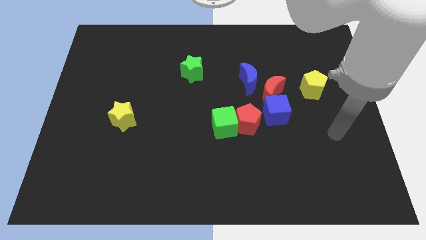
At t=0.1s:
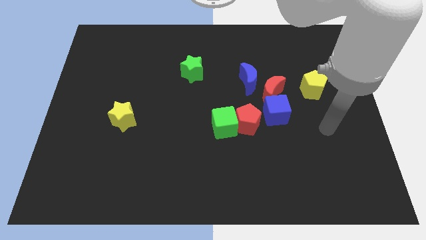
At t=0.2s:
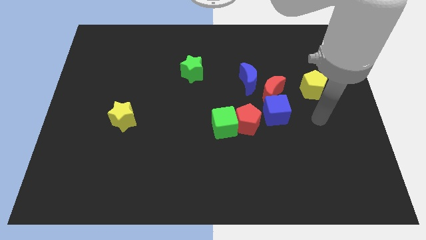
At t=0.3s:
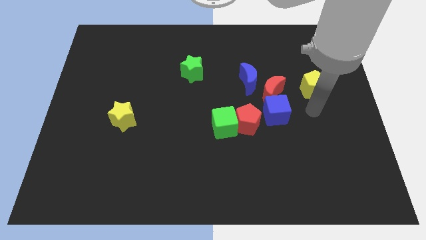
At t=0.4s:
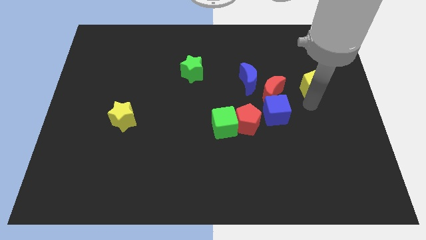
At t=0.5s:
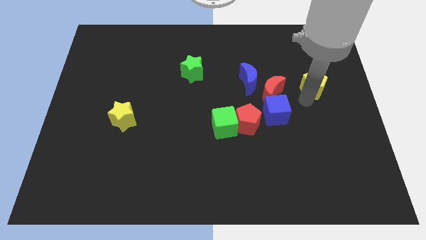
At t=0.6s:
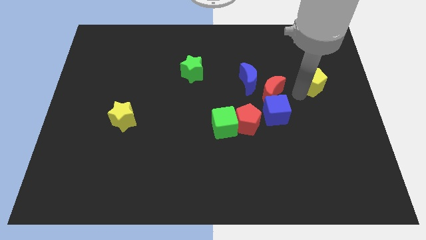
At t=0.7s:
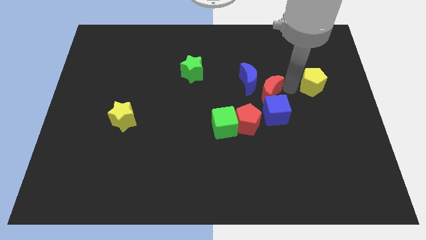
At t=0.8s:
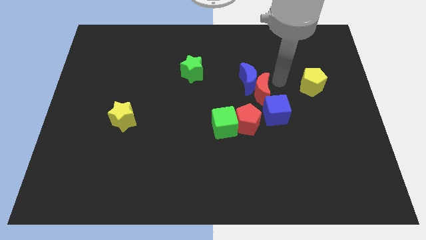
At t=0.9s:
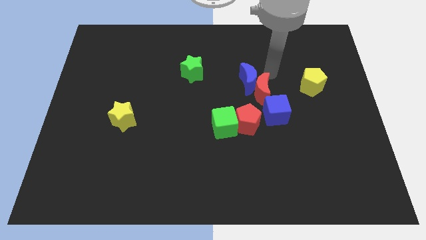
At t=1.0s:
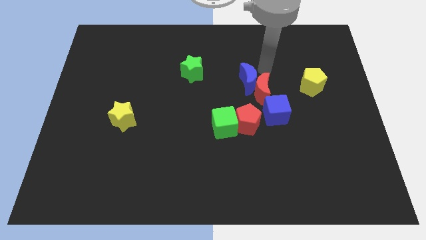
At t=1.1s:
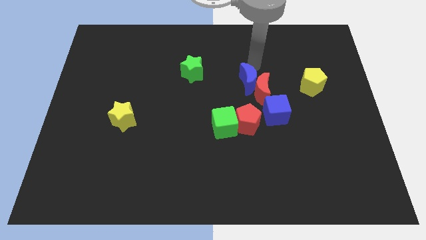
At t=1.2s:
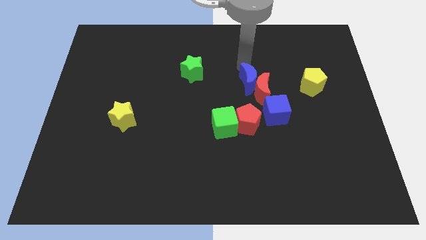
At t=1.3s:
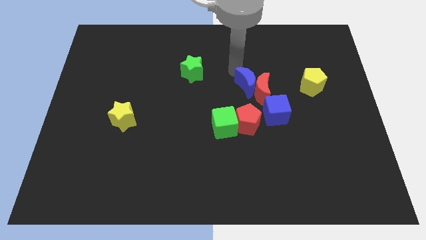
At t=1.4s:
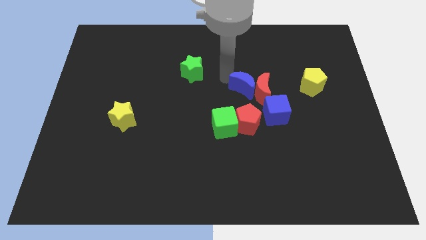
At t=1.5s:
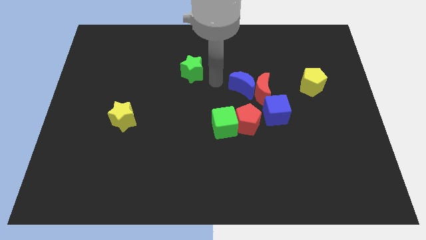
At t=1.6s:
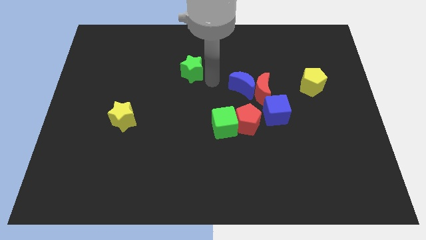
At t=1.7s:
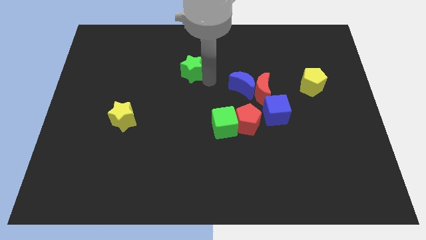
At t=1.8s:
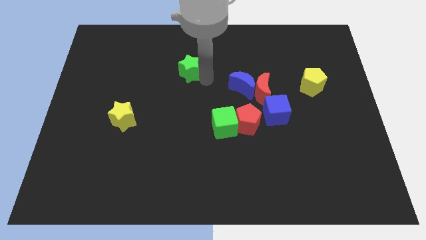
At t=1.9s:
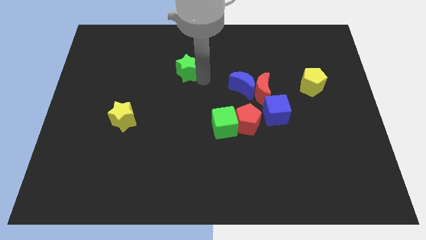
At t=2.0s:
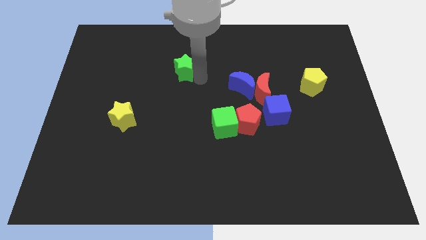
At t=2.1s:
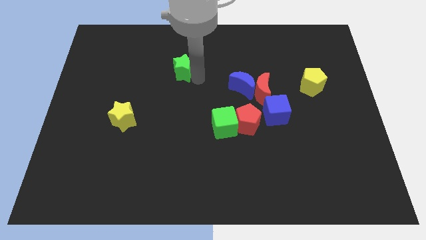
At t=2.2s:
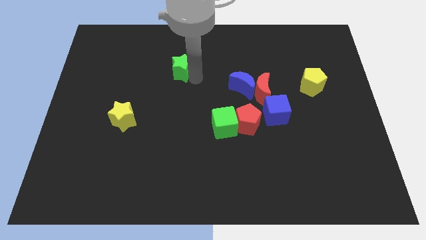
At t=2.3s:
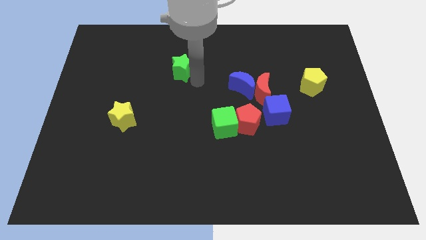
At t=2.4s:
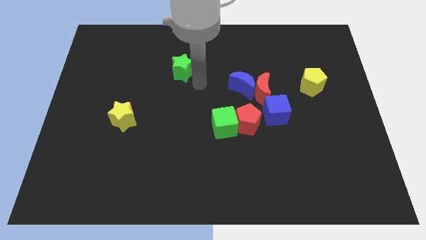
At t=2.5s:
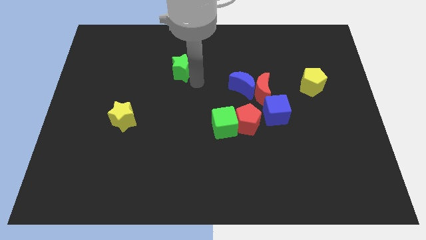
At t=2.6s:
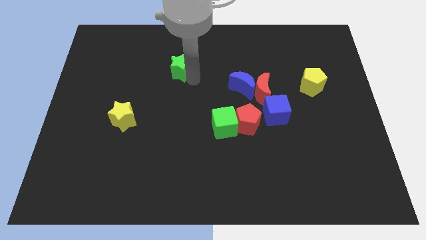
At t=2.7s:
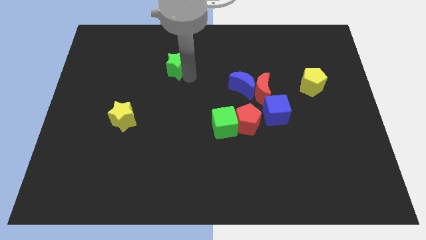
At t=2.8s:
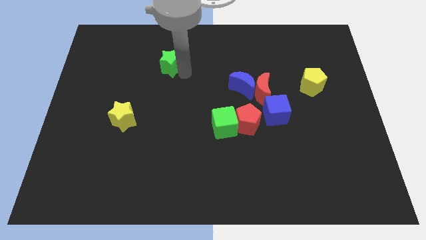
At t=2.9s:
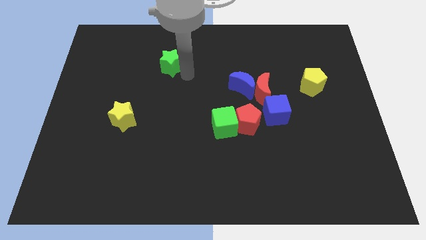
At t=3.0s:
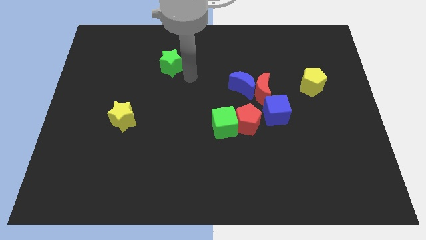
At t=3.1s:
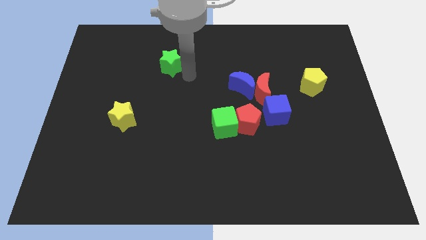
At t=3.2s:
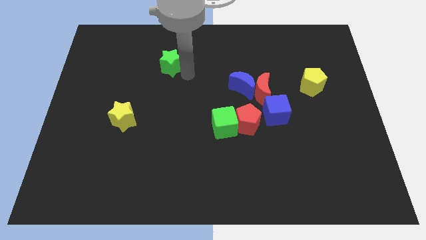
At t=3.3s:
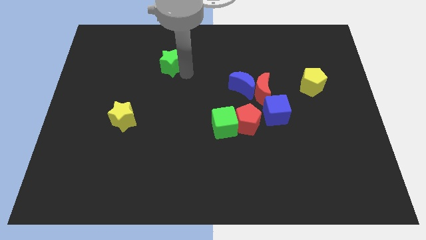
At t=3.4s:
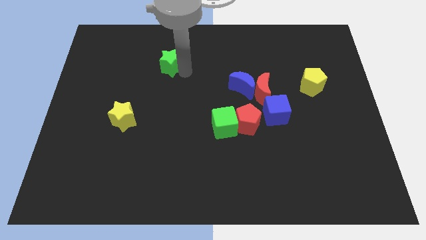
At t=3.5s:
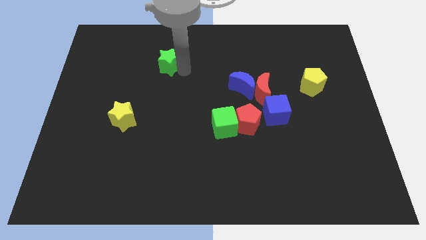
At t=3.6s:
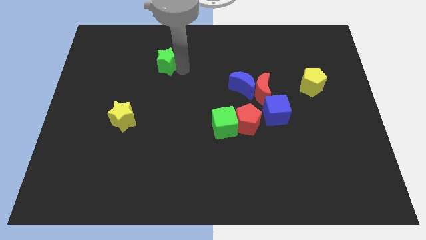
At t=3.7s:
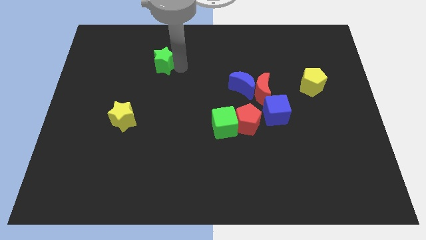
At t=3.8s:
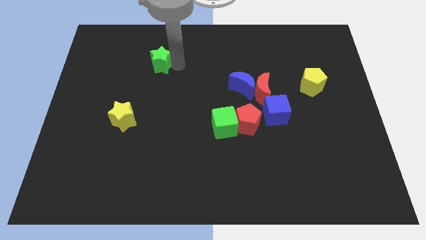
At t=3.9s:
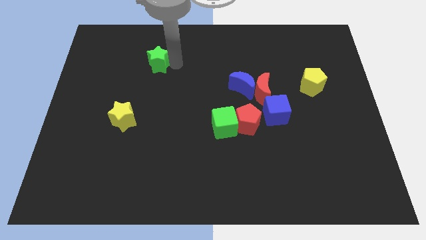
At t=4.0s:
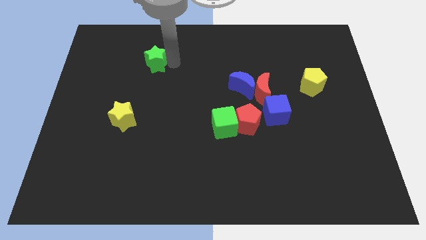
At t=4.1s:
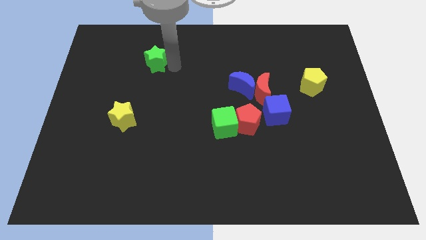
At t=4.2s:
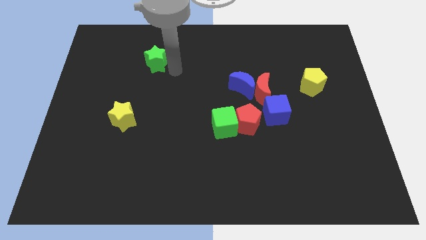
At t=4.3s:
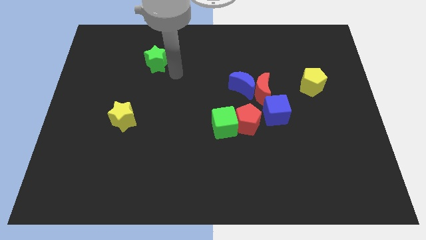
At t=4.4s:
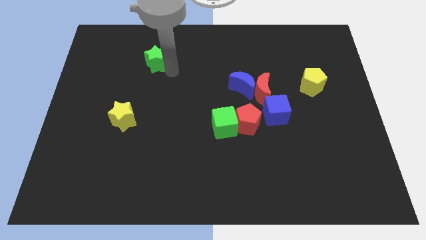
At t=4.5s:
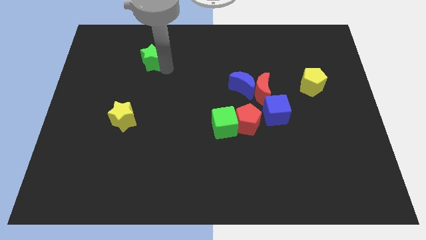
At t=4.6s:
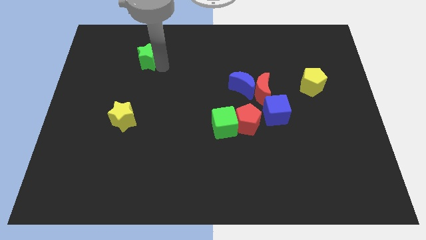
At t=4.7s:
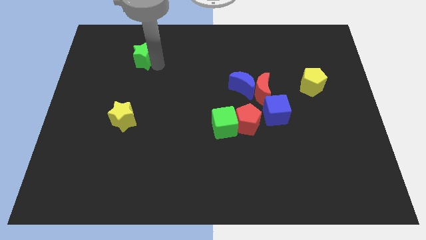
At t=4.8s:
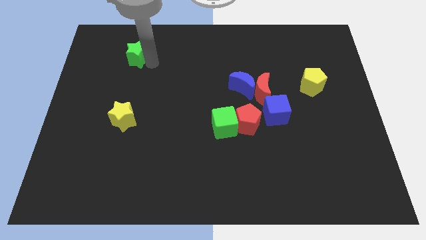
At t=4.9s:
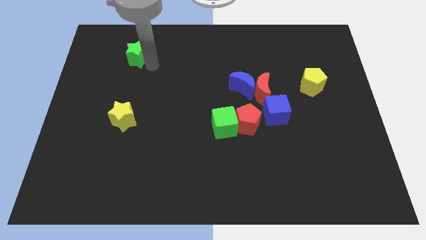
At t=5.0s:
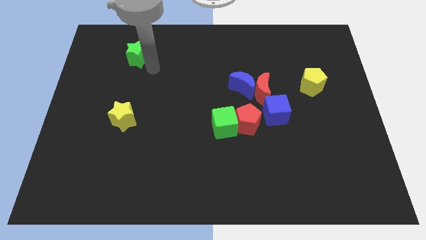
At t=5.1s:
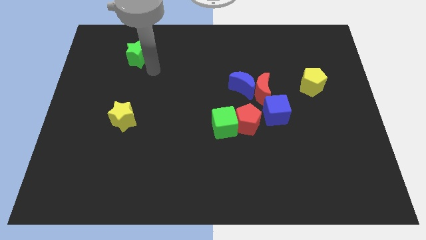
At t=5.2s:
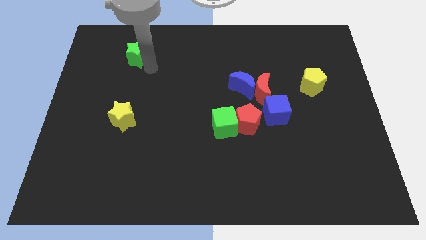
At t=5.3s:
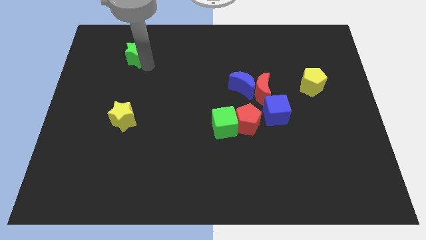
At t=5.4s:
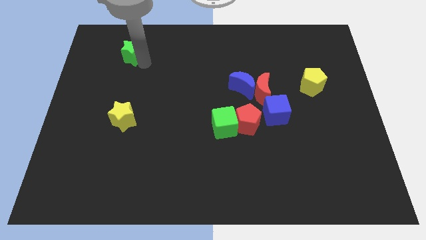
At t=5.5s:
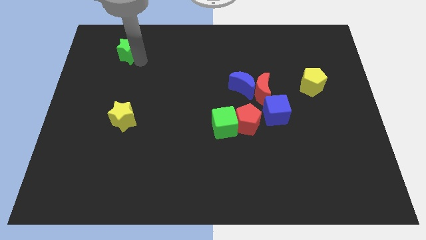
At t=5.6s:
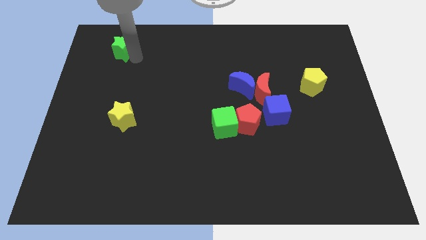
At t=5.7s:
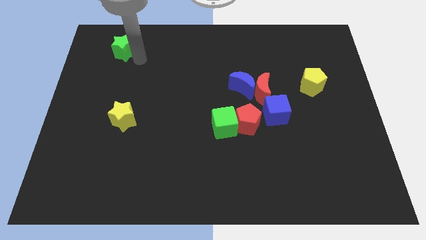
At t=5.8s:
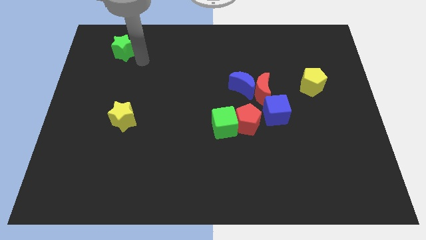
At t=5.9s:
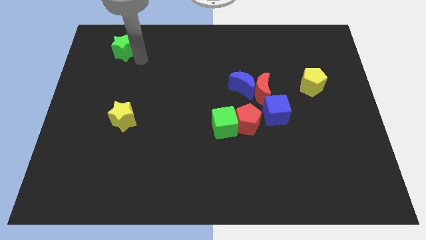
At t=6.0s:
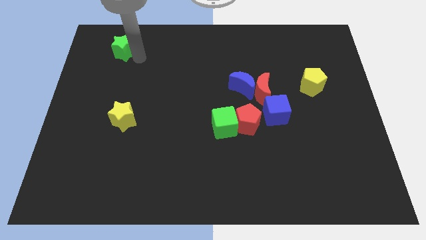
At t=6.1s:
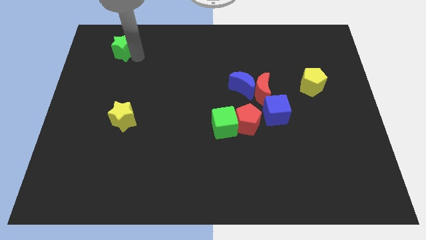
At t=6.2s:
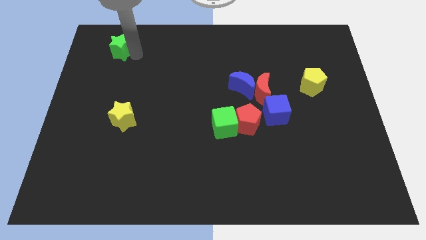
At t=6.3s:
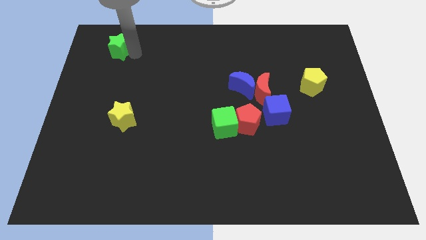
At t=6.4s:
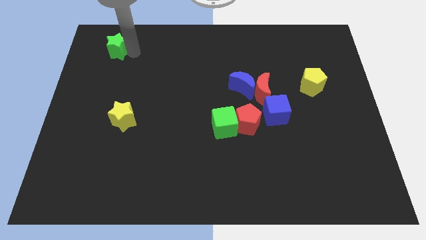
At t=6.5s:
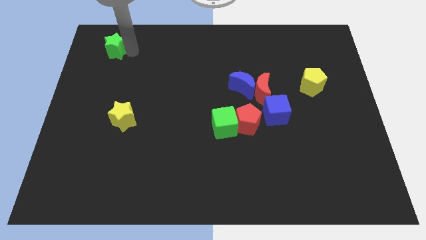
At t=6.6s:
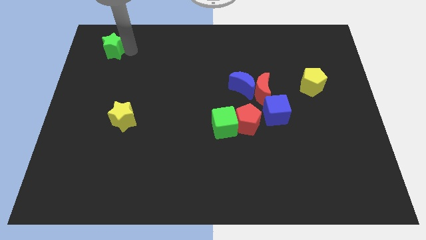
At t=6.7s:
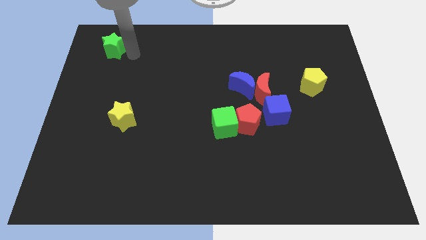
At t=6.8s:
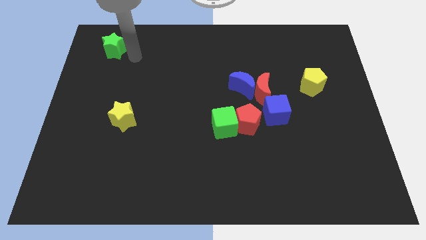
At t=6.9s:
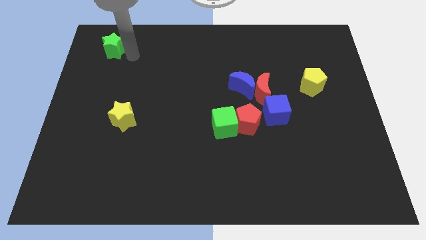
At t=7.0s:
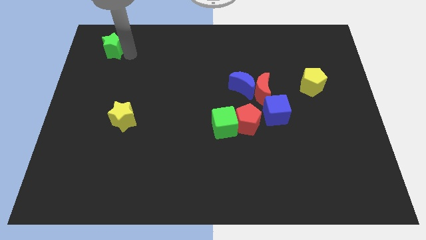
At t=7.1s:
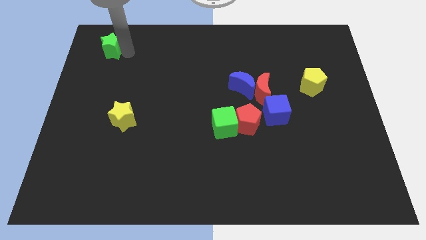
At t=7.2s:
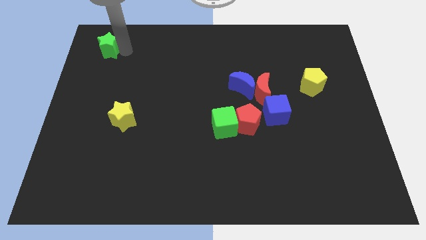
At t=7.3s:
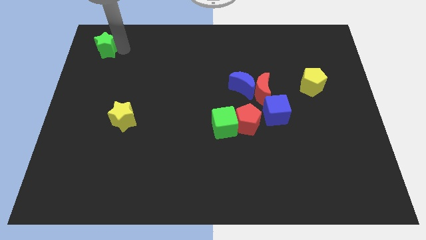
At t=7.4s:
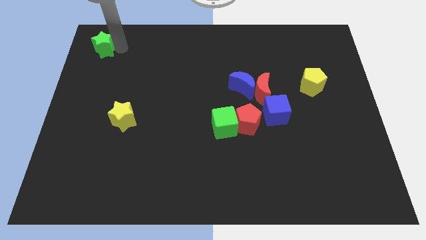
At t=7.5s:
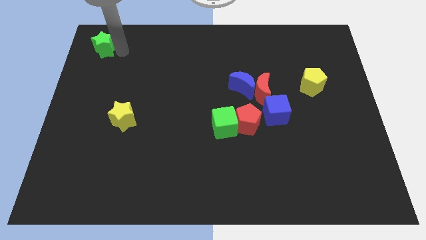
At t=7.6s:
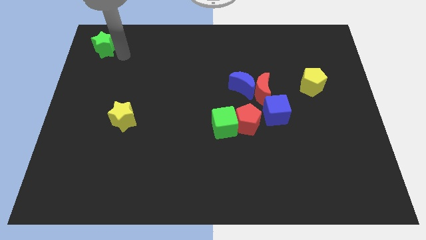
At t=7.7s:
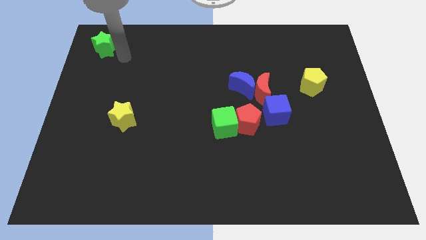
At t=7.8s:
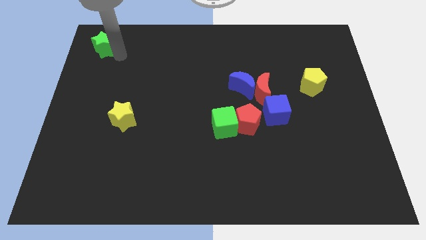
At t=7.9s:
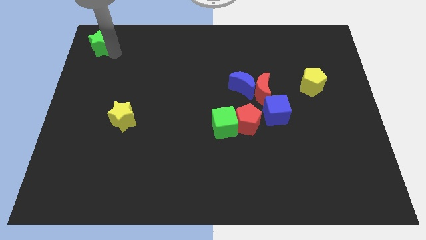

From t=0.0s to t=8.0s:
slide the green star to the top left
